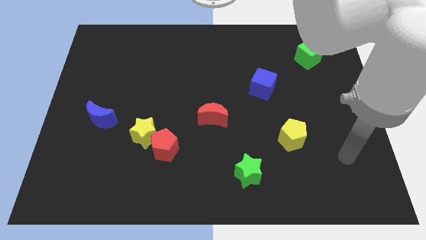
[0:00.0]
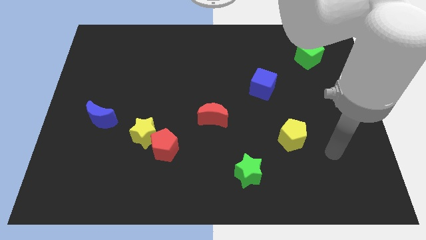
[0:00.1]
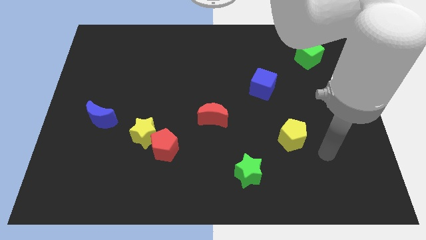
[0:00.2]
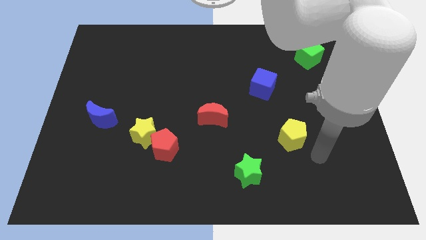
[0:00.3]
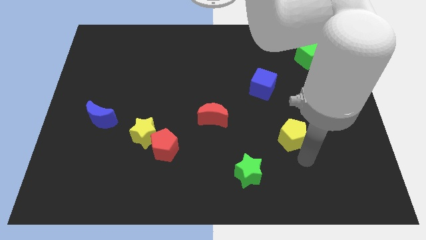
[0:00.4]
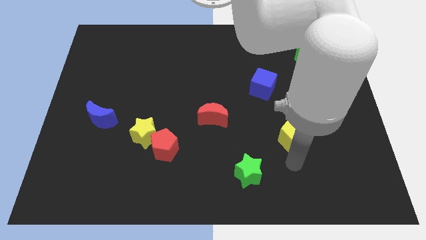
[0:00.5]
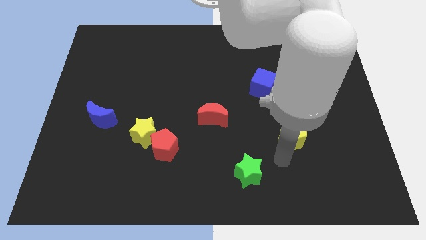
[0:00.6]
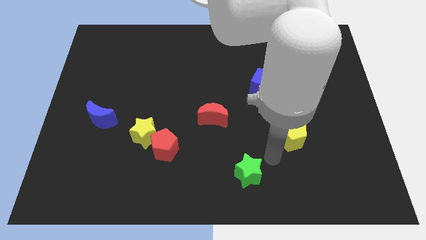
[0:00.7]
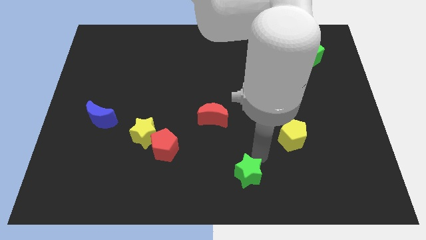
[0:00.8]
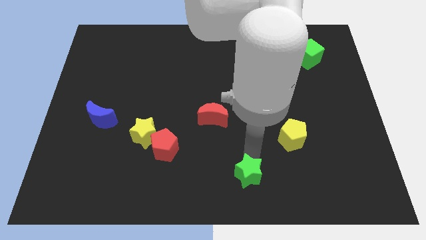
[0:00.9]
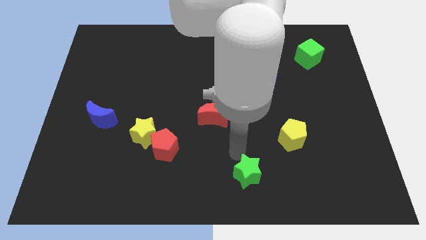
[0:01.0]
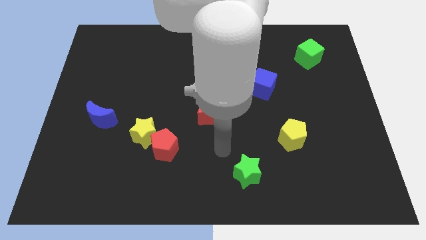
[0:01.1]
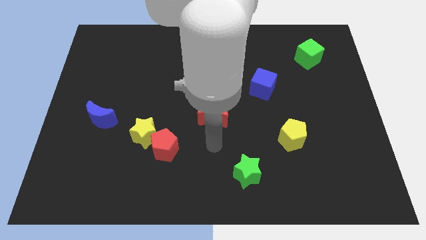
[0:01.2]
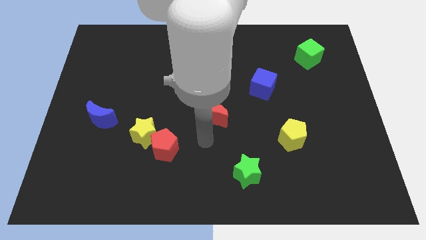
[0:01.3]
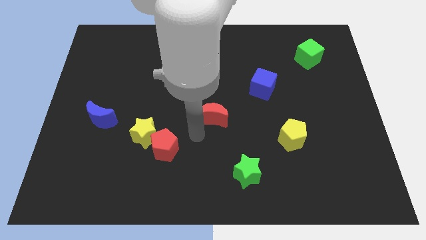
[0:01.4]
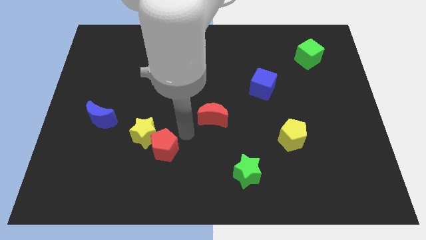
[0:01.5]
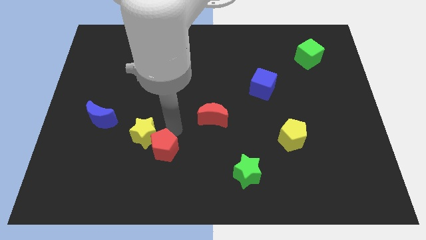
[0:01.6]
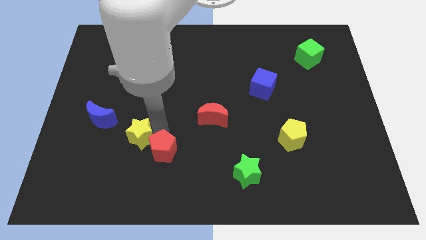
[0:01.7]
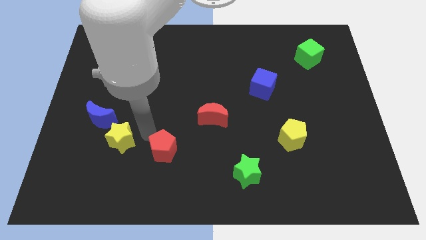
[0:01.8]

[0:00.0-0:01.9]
separate the red pentagon from the yellow star

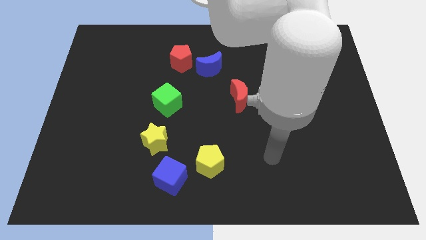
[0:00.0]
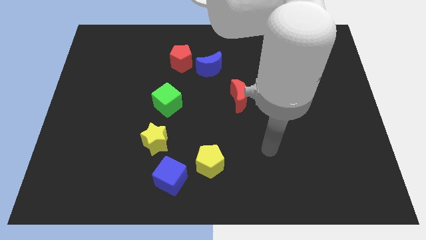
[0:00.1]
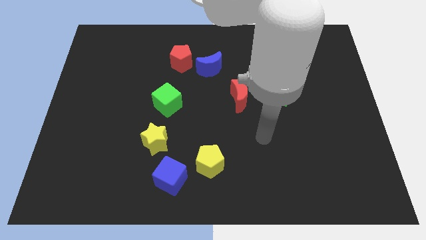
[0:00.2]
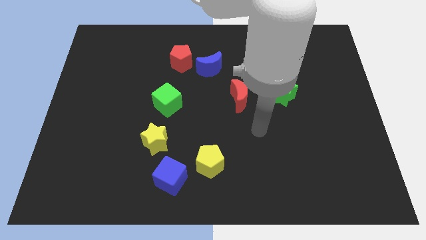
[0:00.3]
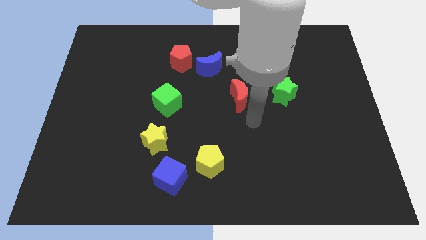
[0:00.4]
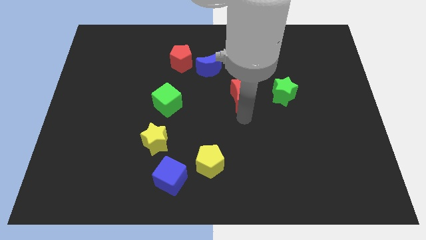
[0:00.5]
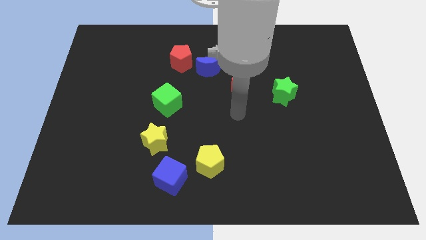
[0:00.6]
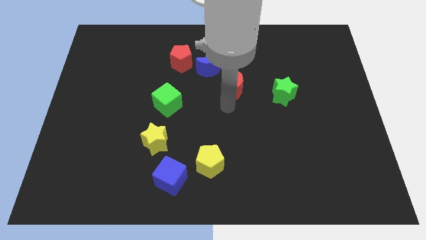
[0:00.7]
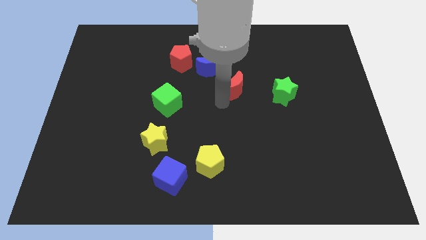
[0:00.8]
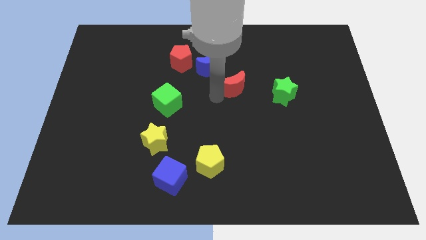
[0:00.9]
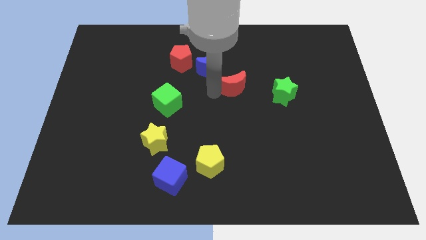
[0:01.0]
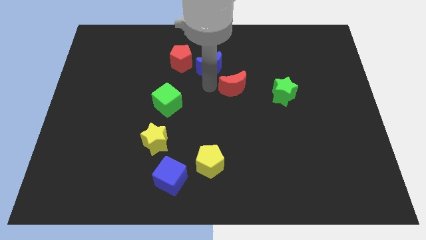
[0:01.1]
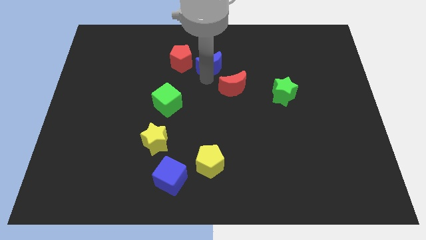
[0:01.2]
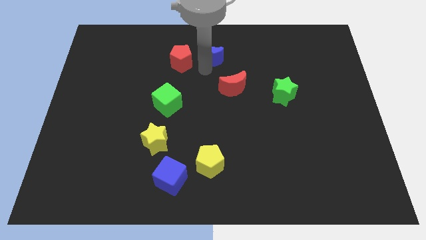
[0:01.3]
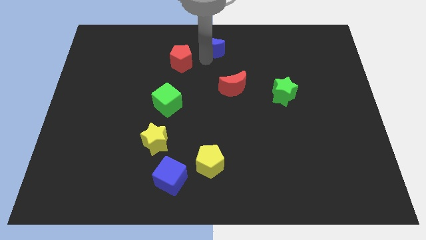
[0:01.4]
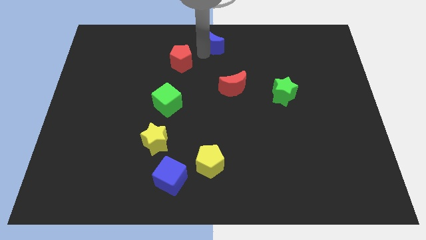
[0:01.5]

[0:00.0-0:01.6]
move the red pentagon away from the blue moon

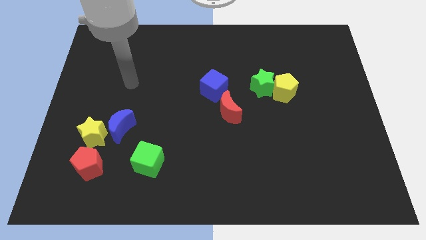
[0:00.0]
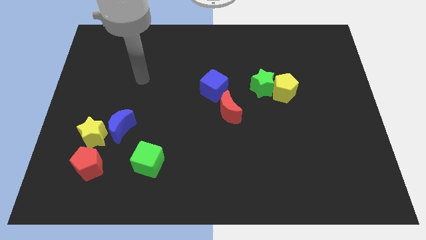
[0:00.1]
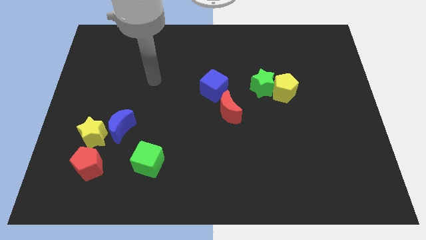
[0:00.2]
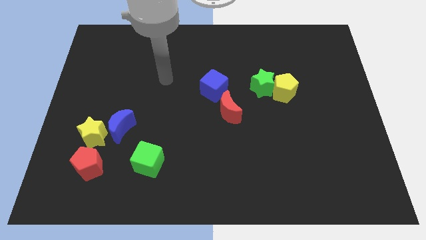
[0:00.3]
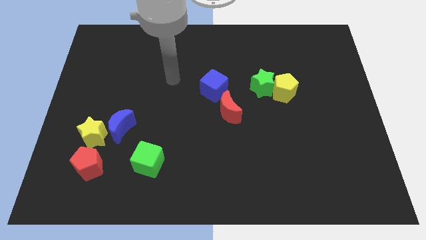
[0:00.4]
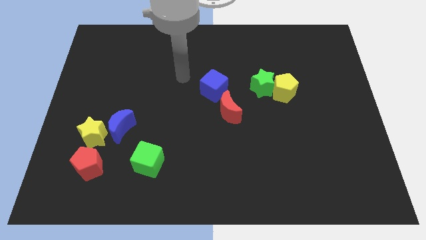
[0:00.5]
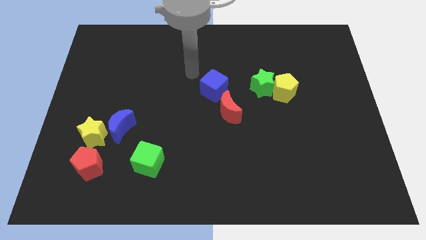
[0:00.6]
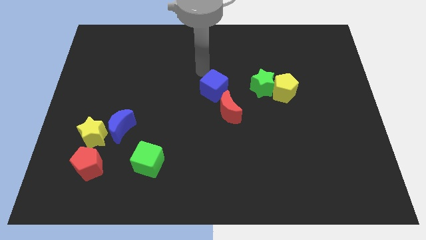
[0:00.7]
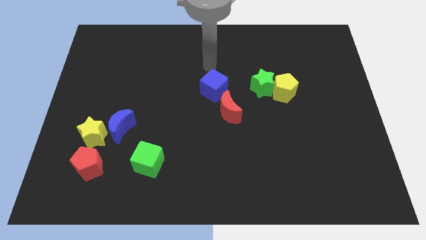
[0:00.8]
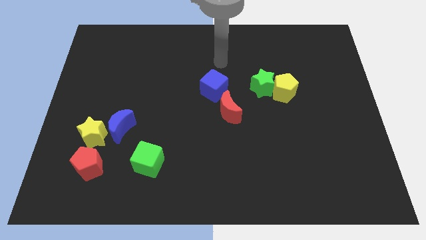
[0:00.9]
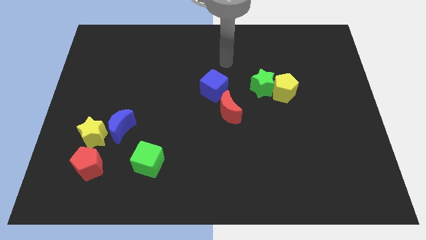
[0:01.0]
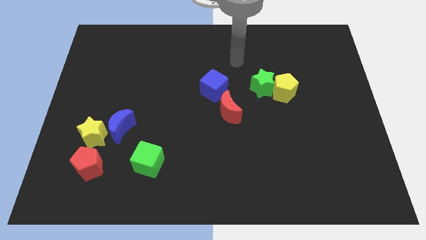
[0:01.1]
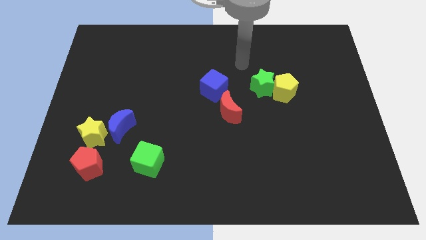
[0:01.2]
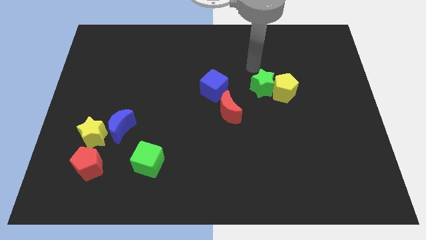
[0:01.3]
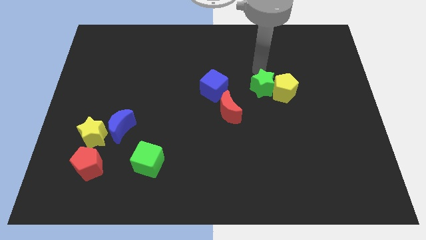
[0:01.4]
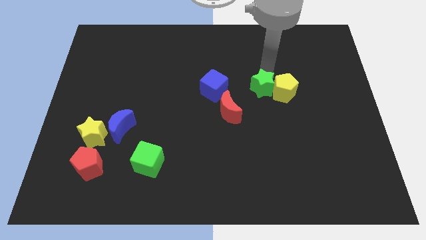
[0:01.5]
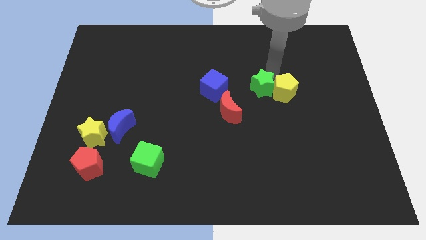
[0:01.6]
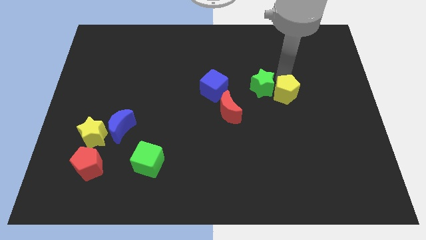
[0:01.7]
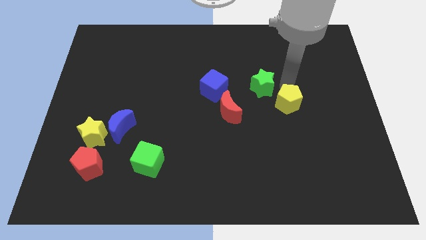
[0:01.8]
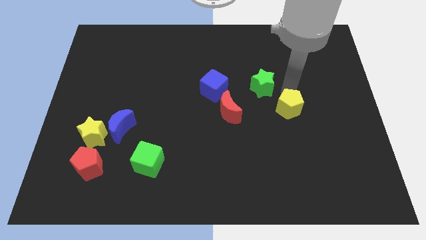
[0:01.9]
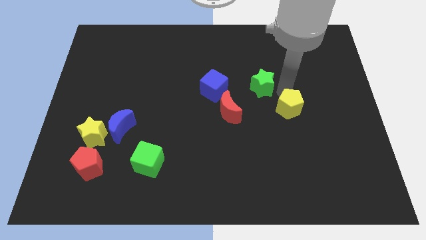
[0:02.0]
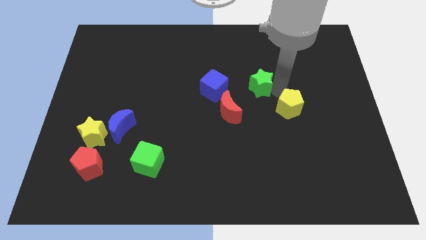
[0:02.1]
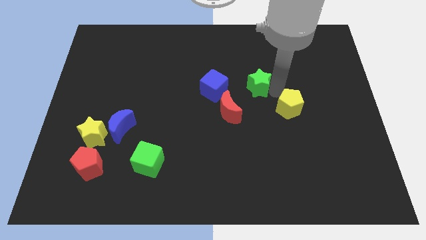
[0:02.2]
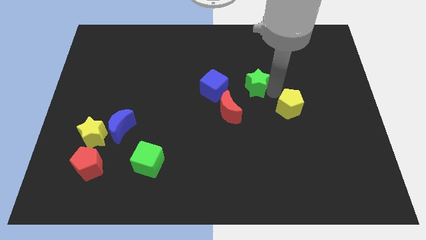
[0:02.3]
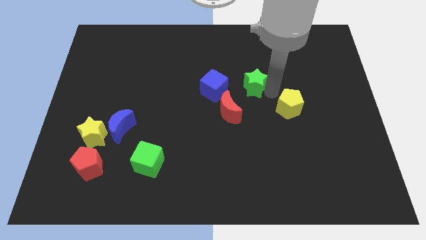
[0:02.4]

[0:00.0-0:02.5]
pull the green star apart from the yellow pentagon

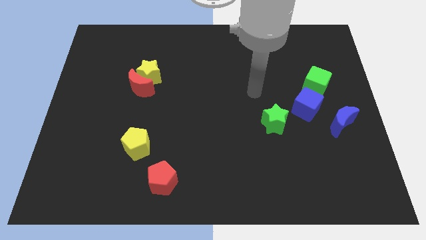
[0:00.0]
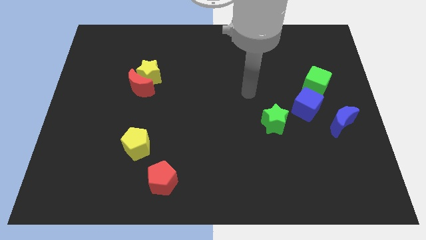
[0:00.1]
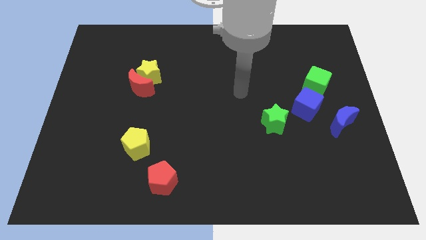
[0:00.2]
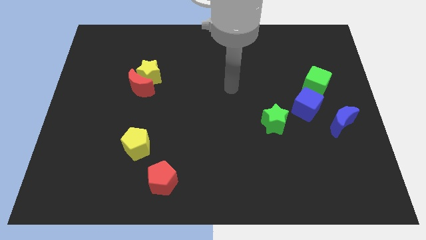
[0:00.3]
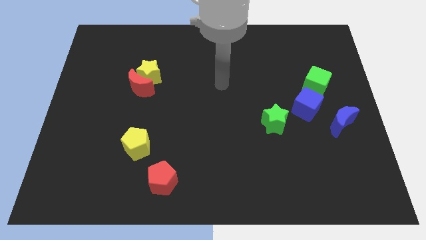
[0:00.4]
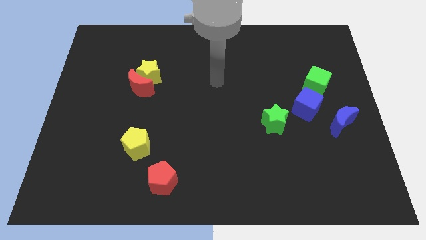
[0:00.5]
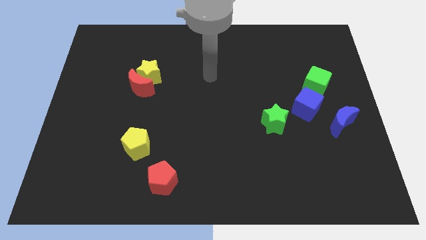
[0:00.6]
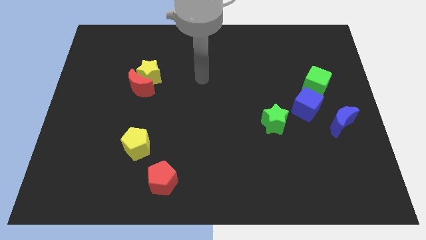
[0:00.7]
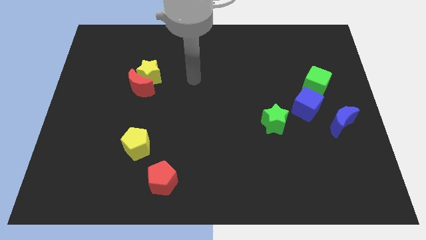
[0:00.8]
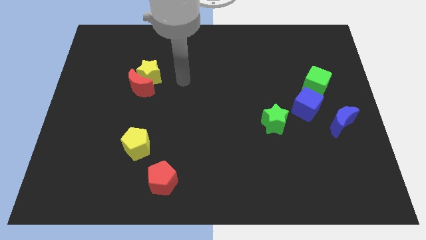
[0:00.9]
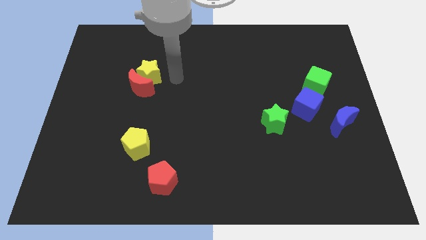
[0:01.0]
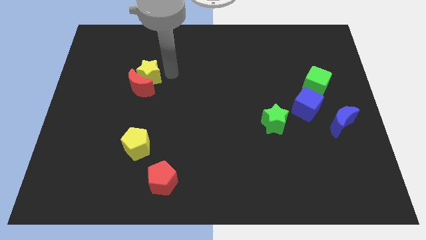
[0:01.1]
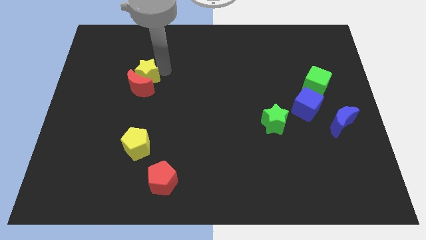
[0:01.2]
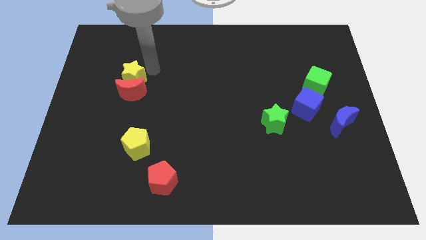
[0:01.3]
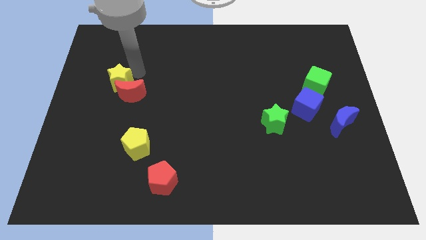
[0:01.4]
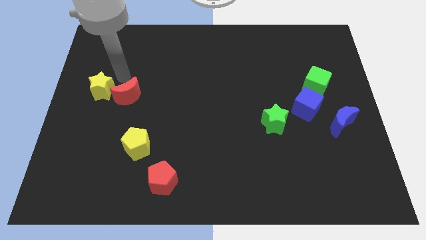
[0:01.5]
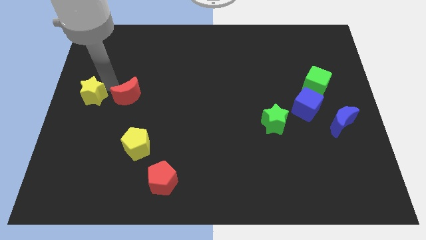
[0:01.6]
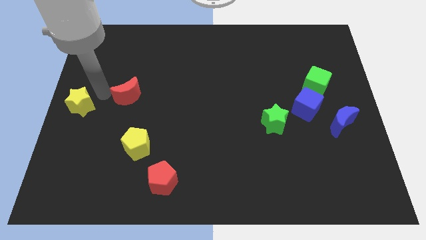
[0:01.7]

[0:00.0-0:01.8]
move the red moon away from the yellow star

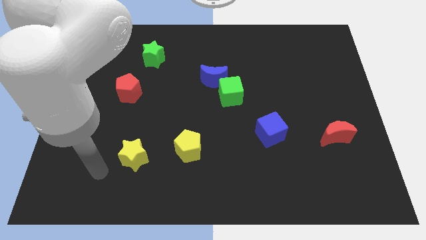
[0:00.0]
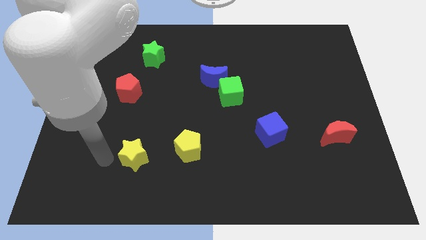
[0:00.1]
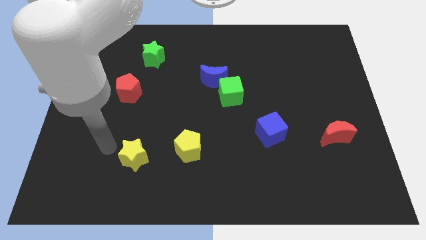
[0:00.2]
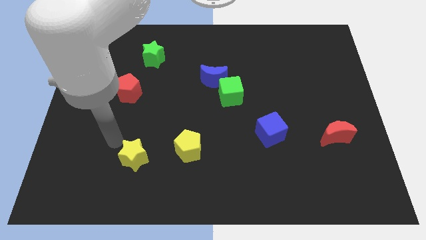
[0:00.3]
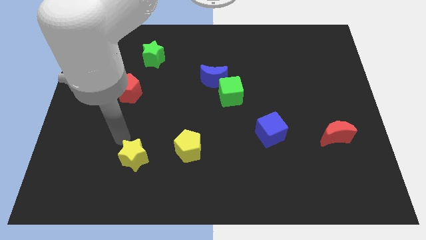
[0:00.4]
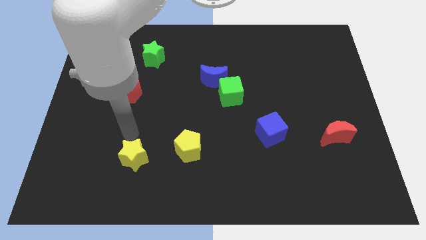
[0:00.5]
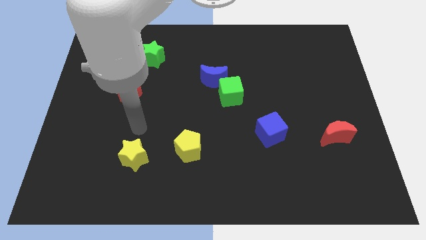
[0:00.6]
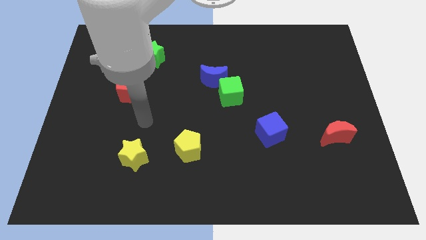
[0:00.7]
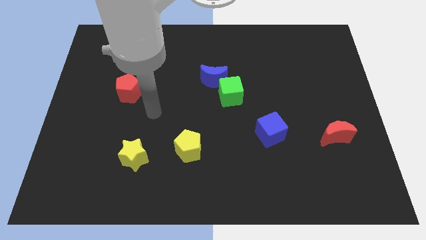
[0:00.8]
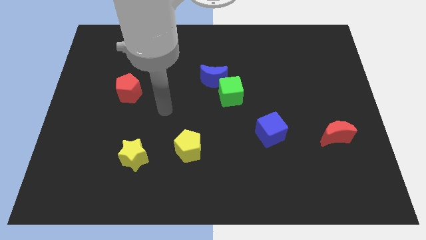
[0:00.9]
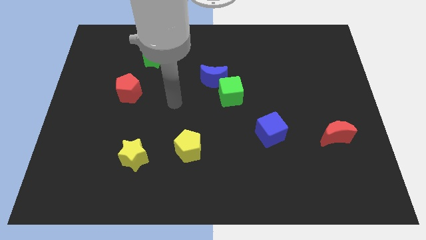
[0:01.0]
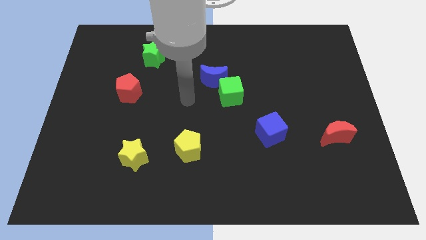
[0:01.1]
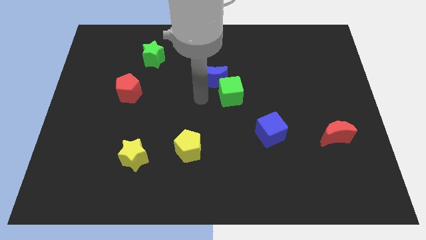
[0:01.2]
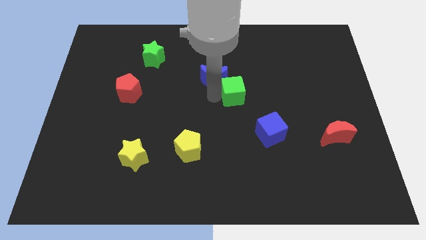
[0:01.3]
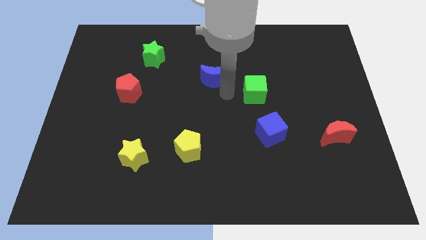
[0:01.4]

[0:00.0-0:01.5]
move the blue moon away from the green cube

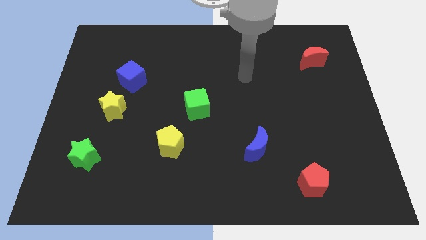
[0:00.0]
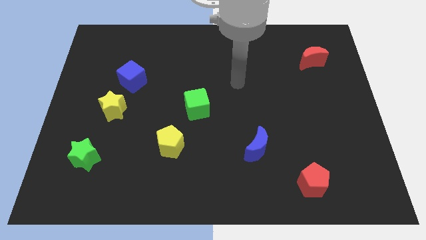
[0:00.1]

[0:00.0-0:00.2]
move the blue cube away from the yellow star
